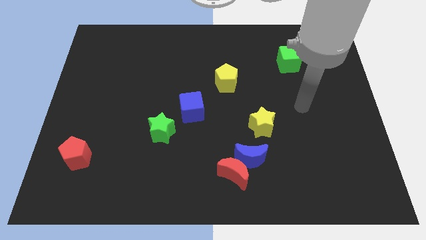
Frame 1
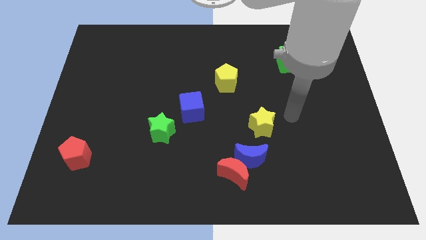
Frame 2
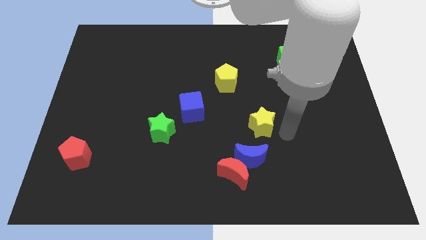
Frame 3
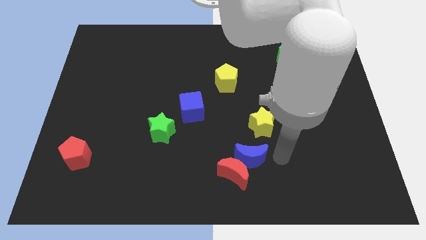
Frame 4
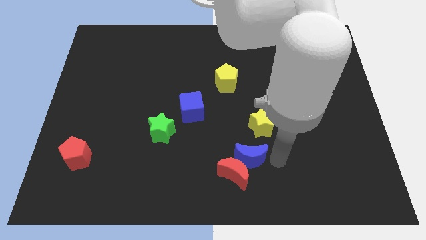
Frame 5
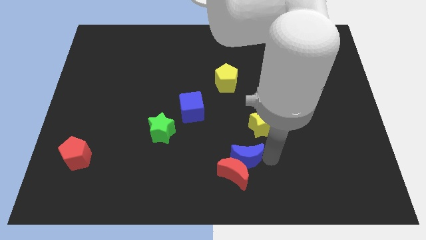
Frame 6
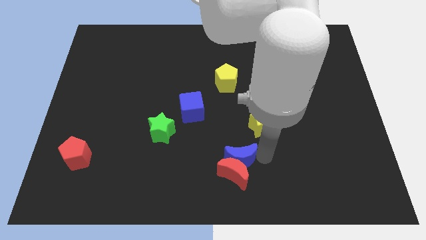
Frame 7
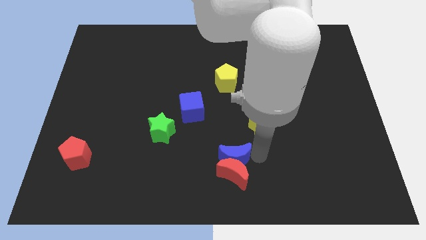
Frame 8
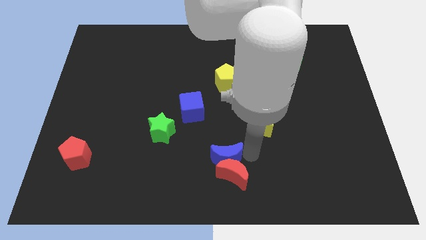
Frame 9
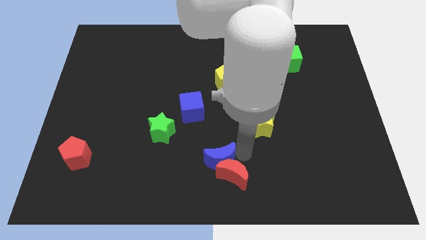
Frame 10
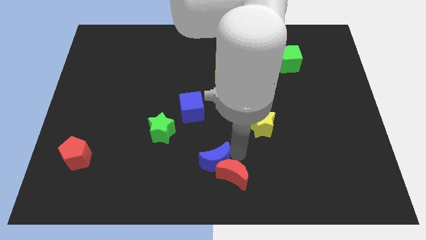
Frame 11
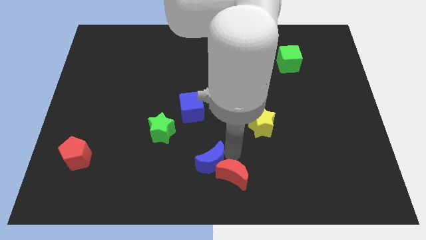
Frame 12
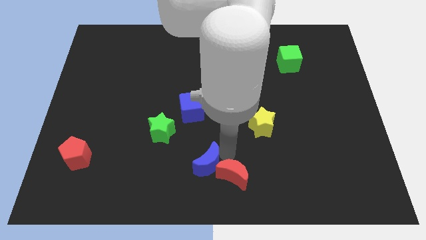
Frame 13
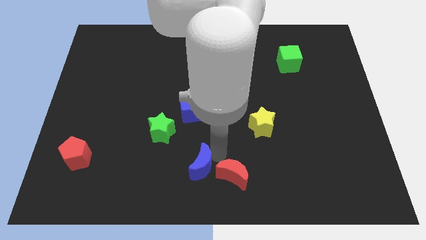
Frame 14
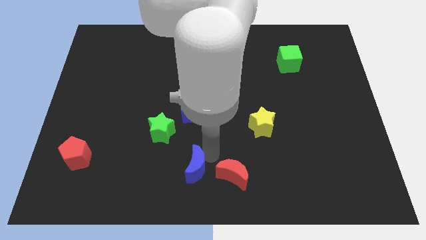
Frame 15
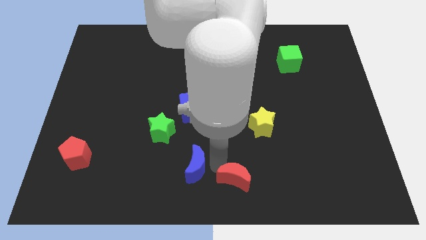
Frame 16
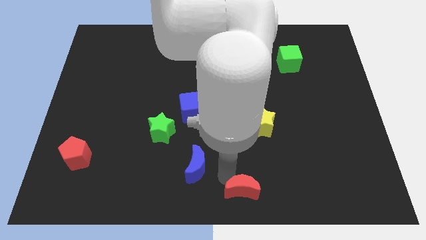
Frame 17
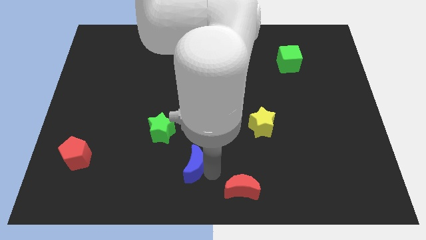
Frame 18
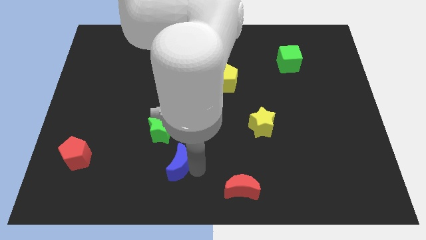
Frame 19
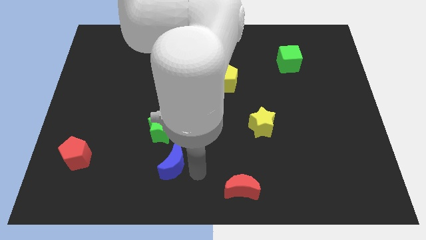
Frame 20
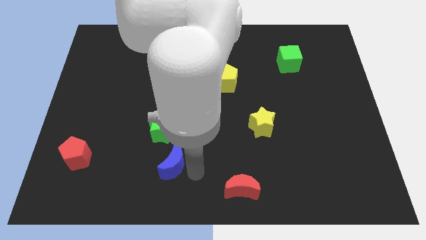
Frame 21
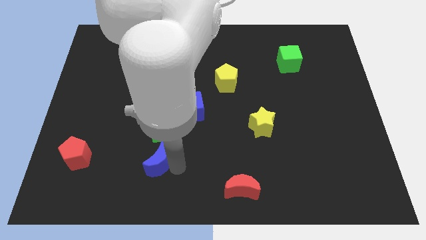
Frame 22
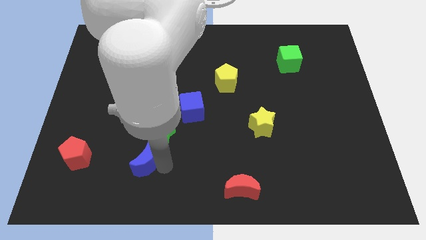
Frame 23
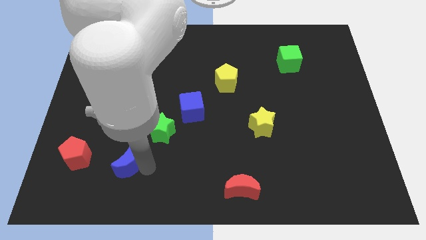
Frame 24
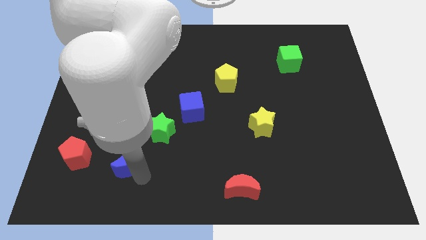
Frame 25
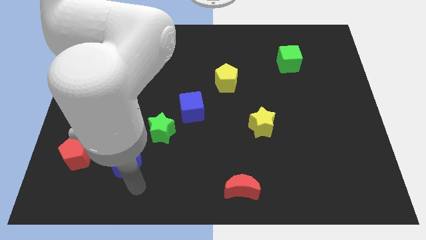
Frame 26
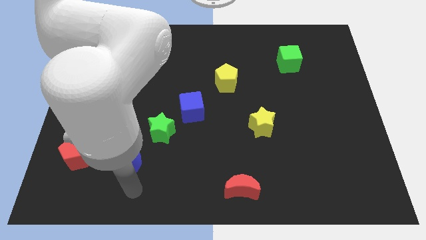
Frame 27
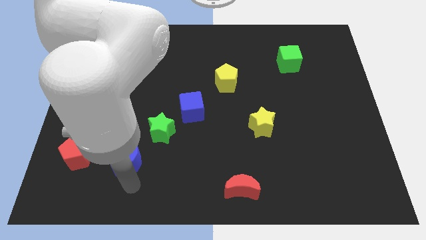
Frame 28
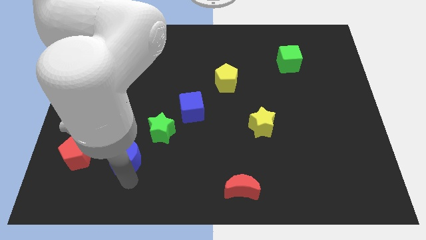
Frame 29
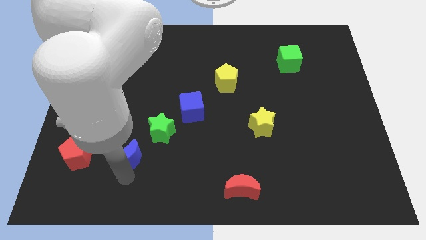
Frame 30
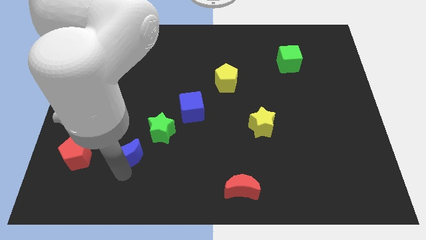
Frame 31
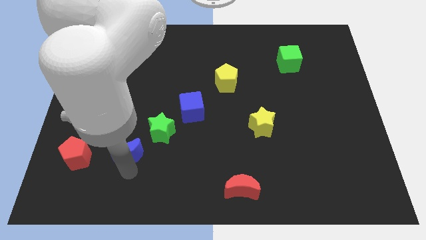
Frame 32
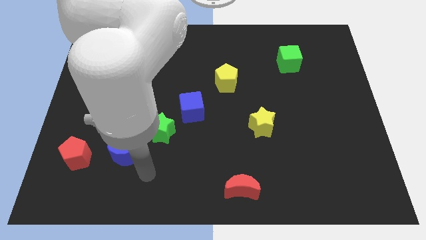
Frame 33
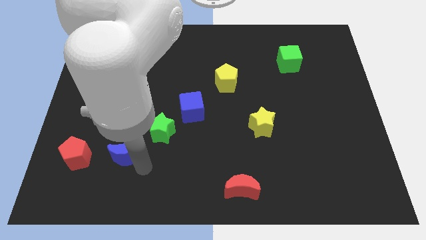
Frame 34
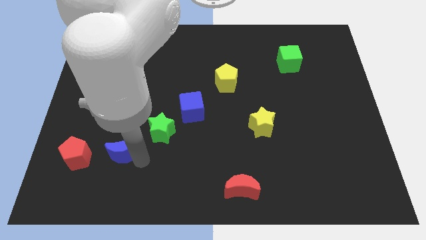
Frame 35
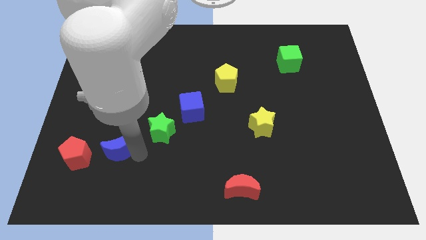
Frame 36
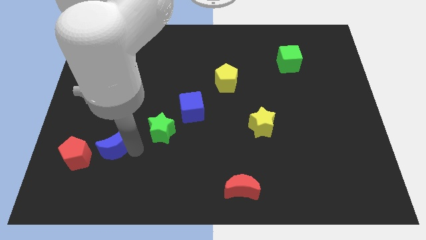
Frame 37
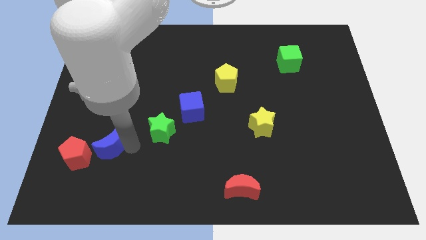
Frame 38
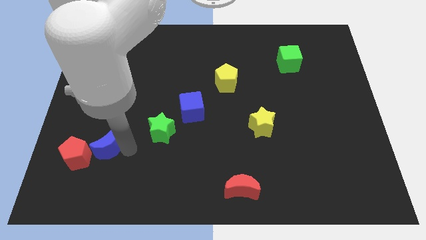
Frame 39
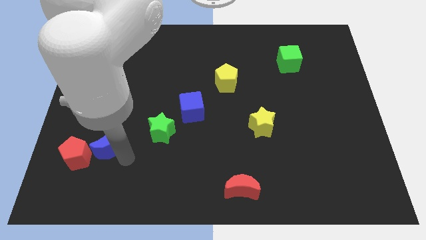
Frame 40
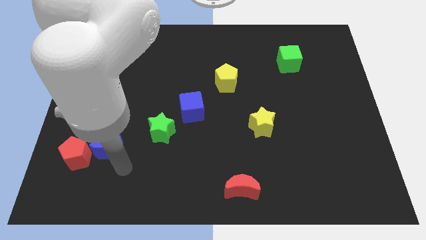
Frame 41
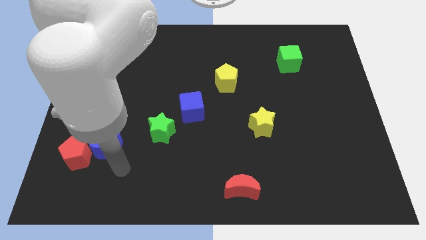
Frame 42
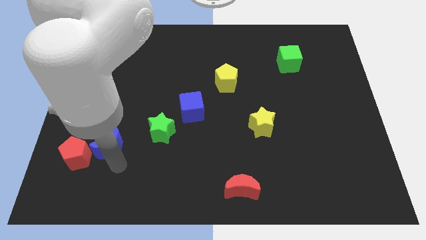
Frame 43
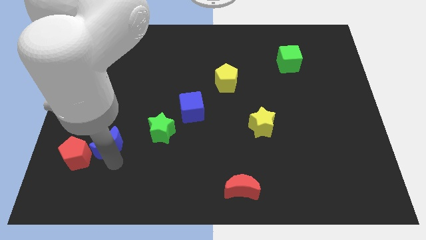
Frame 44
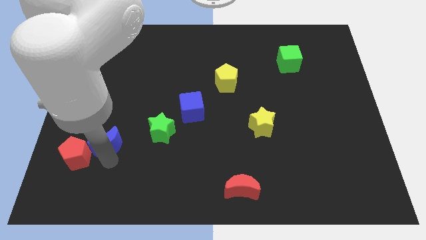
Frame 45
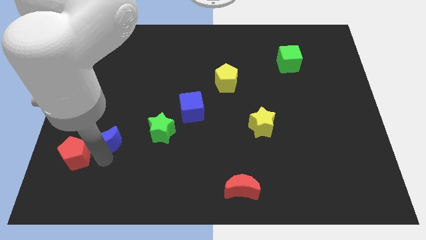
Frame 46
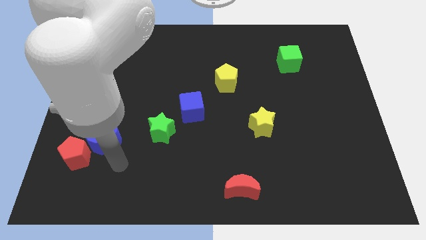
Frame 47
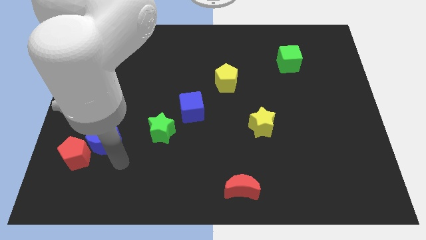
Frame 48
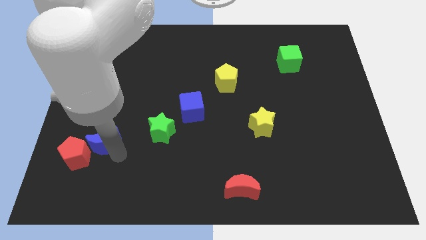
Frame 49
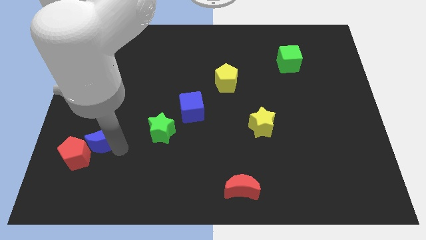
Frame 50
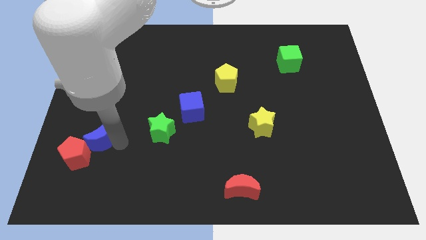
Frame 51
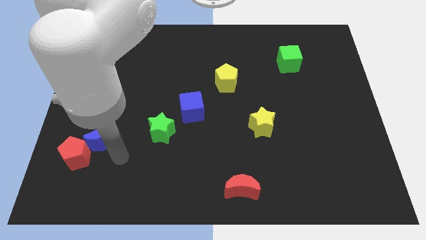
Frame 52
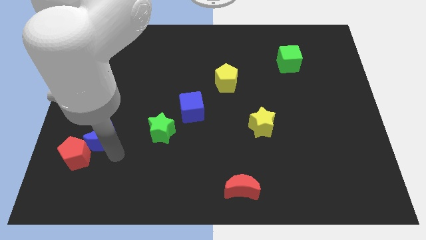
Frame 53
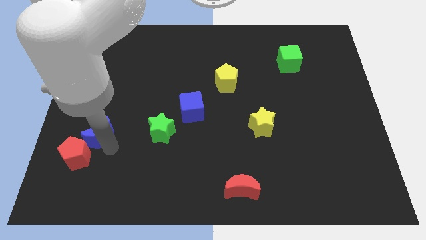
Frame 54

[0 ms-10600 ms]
slide the blue moon above the red pentagon

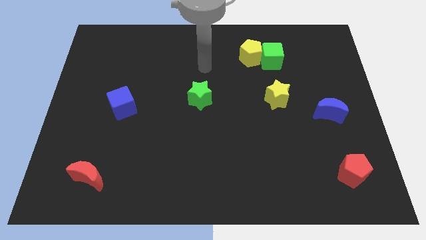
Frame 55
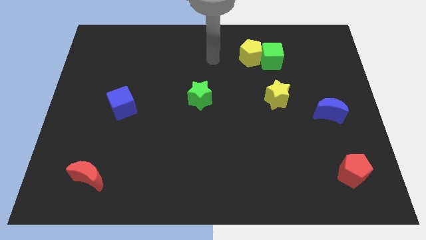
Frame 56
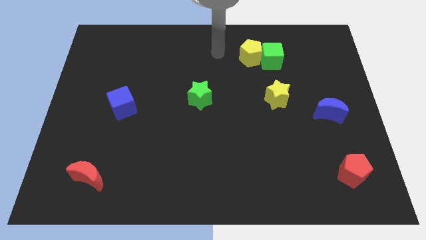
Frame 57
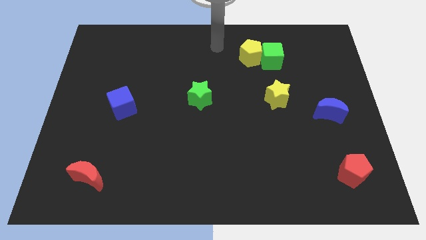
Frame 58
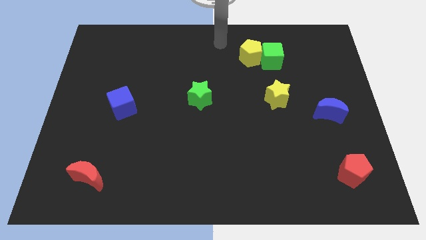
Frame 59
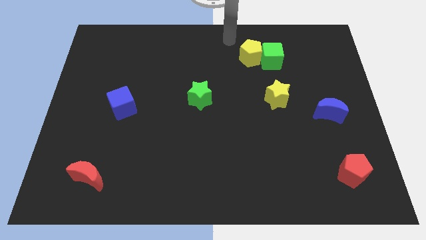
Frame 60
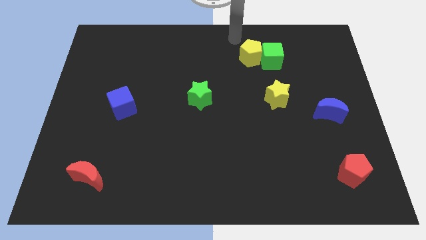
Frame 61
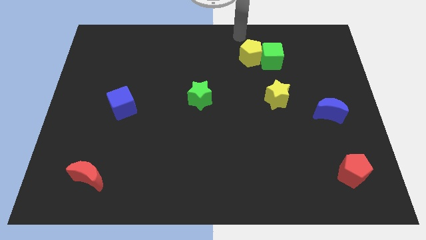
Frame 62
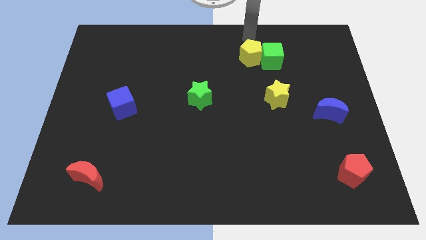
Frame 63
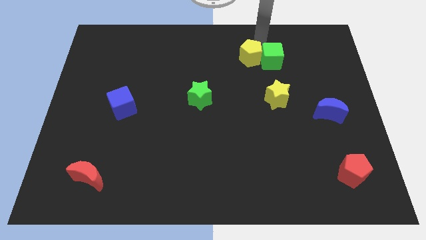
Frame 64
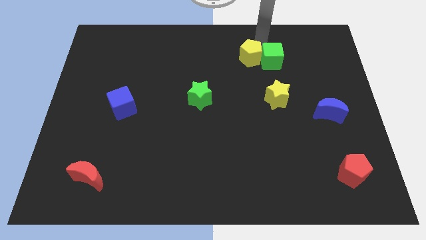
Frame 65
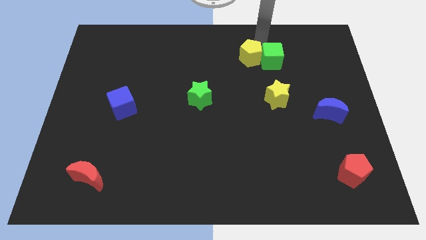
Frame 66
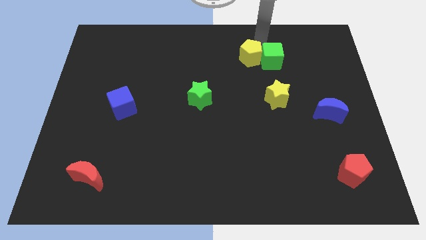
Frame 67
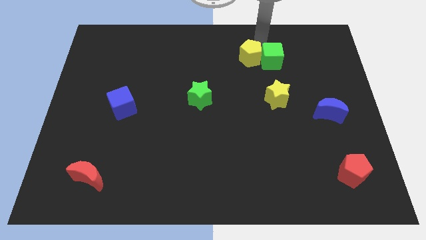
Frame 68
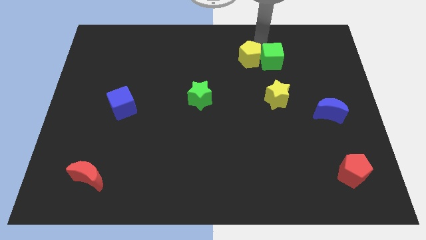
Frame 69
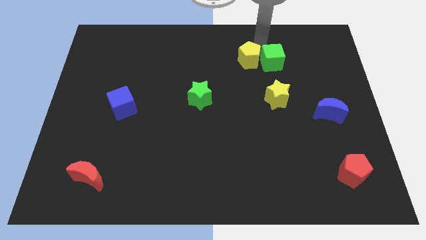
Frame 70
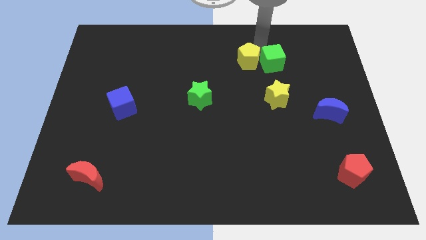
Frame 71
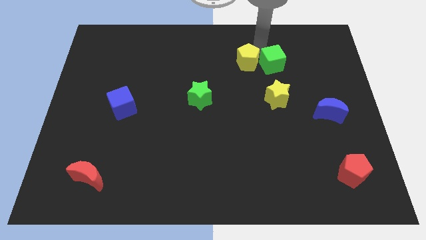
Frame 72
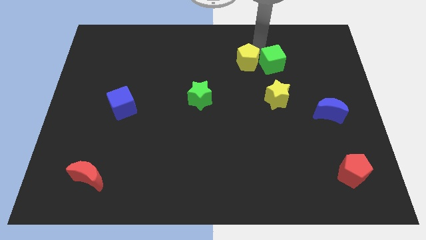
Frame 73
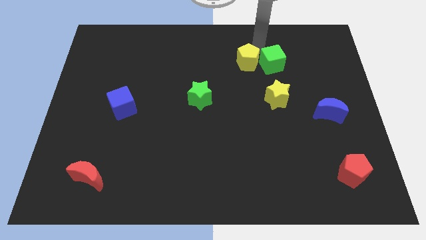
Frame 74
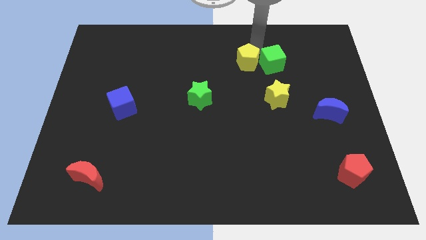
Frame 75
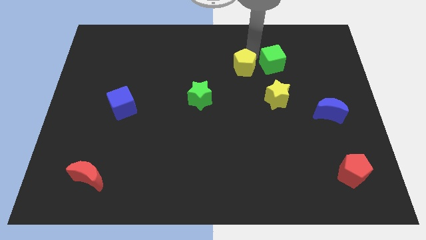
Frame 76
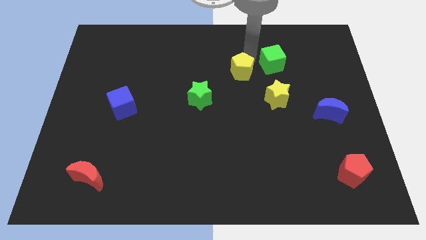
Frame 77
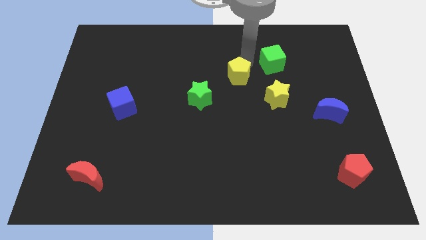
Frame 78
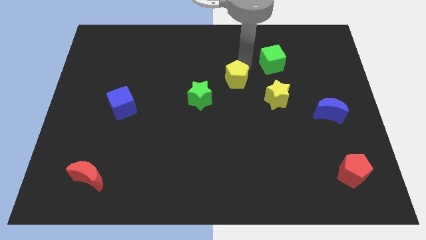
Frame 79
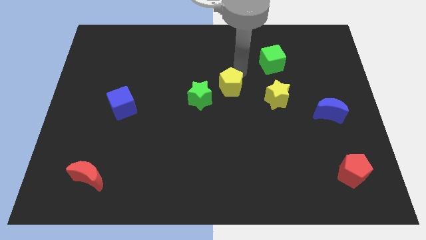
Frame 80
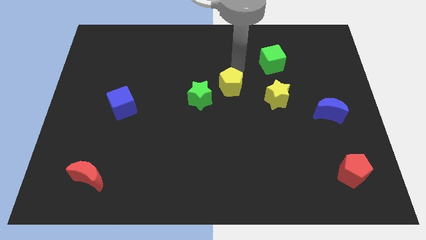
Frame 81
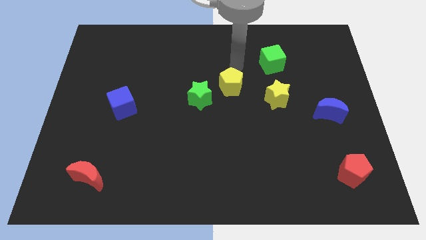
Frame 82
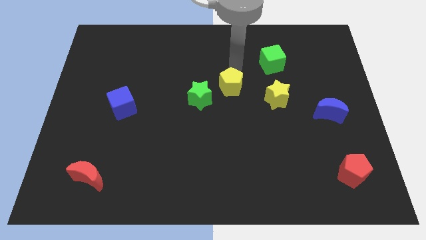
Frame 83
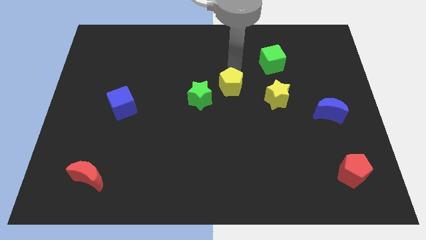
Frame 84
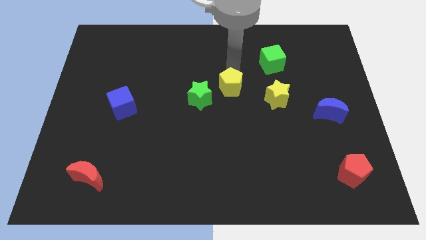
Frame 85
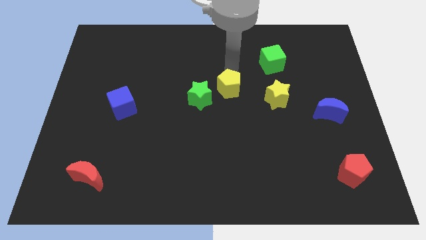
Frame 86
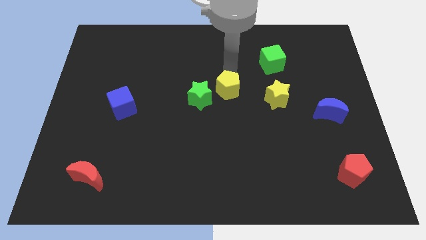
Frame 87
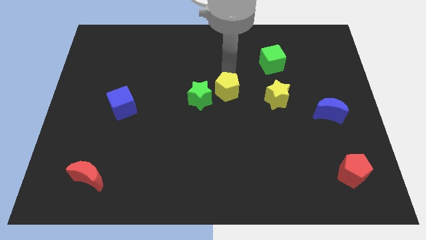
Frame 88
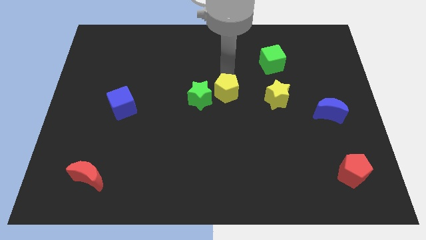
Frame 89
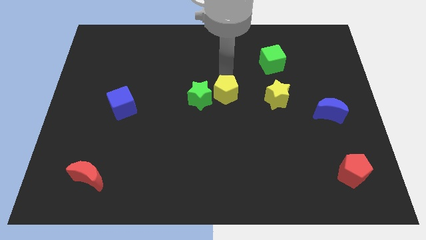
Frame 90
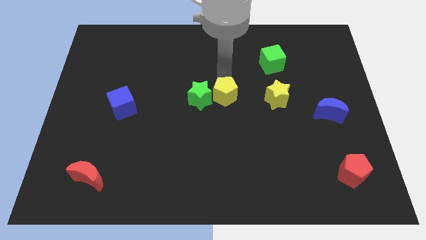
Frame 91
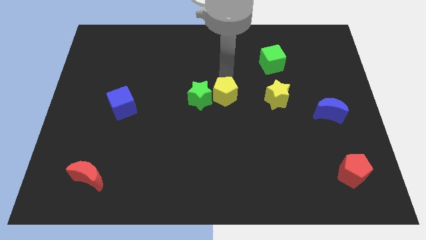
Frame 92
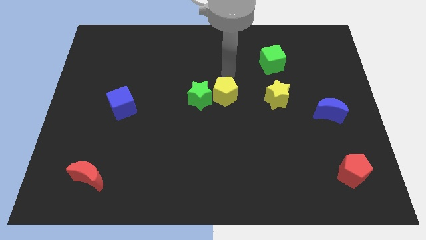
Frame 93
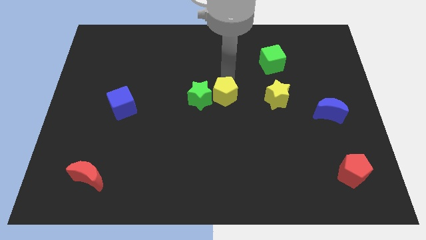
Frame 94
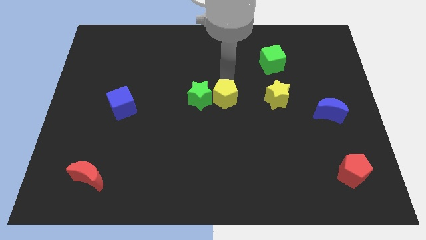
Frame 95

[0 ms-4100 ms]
put the yellow pentagon to the bottom right of the green star
